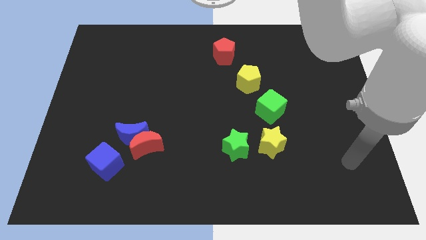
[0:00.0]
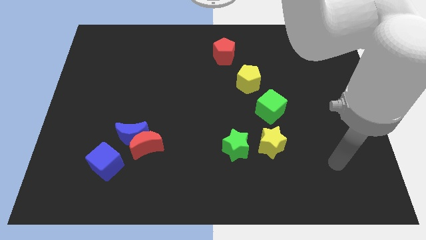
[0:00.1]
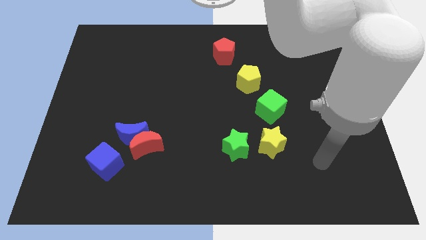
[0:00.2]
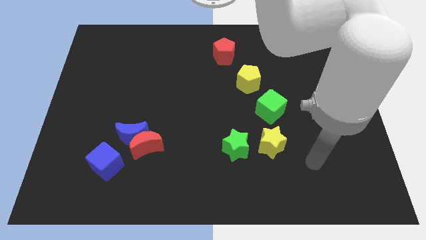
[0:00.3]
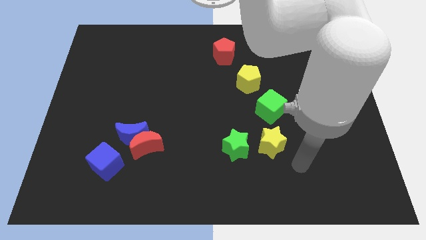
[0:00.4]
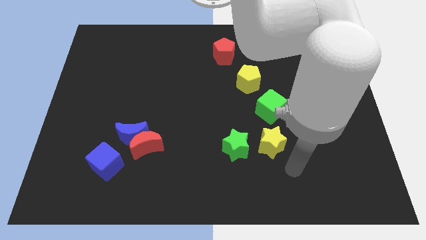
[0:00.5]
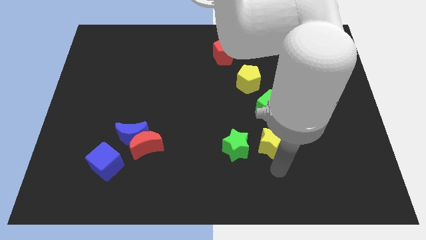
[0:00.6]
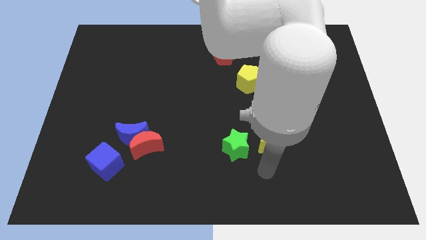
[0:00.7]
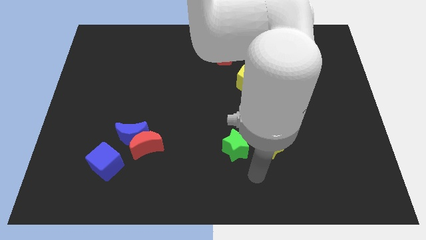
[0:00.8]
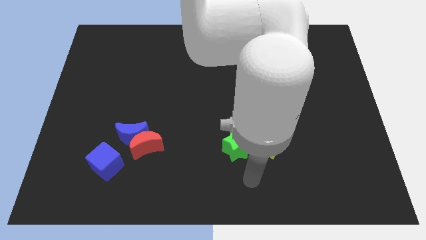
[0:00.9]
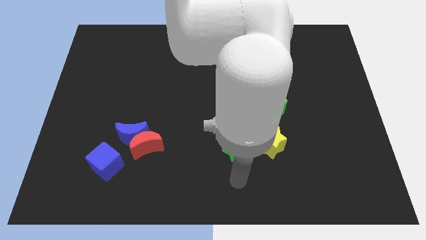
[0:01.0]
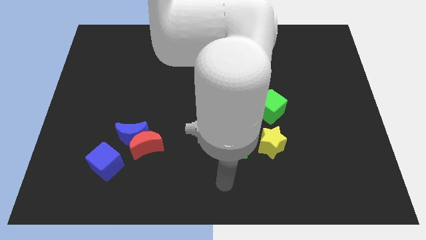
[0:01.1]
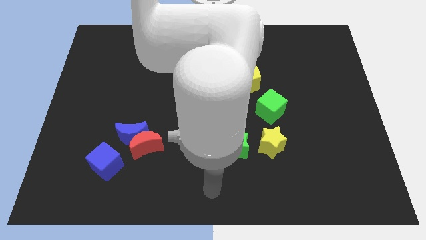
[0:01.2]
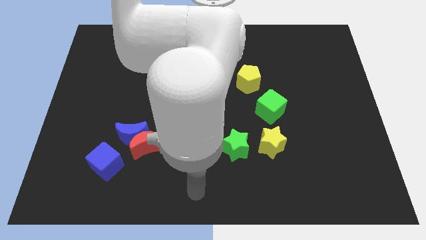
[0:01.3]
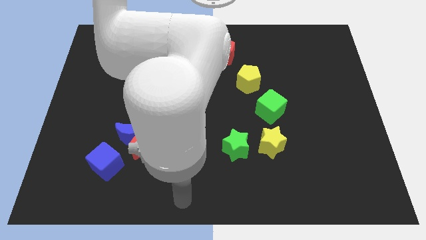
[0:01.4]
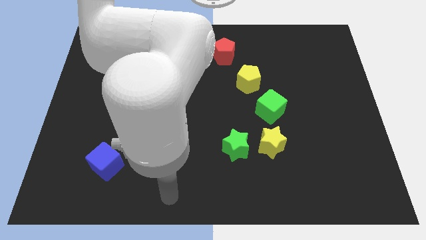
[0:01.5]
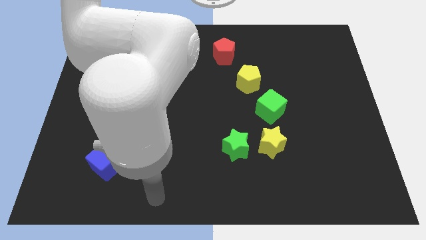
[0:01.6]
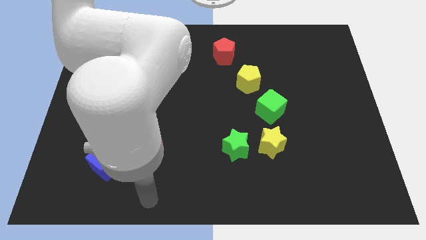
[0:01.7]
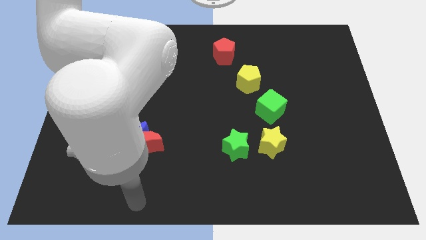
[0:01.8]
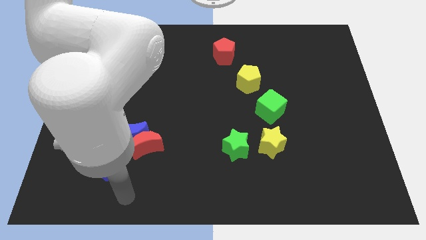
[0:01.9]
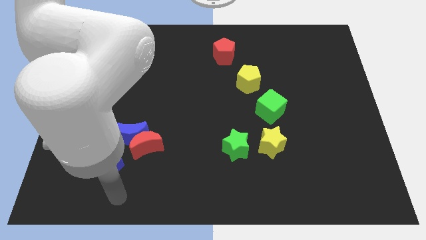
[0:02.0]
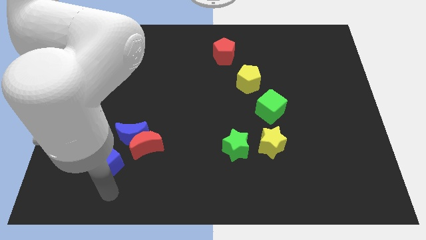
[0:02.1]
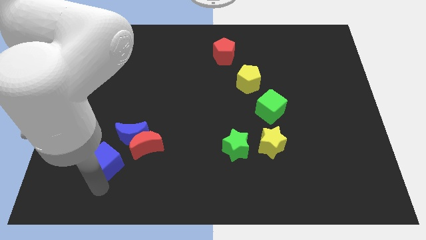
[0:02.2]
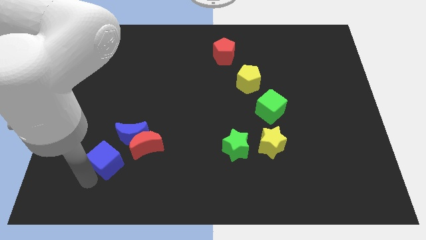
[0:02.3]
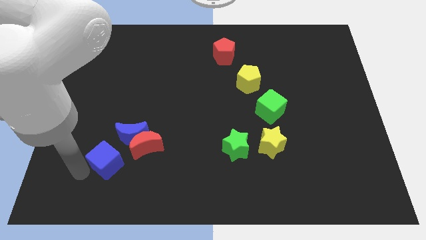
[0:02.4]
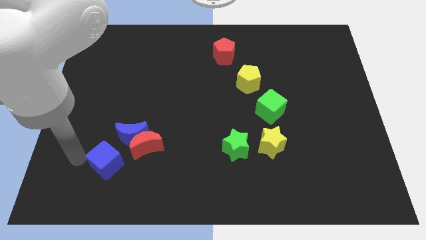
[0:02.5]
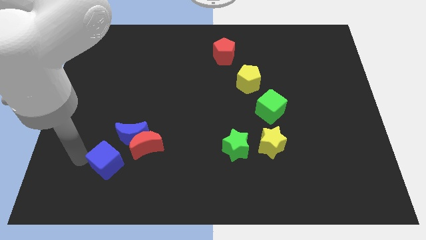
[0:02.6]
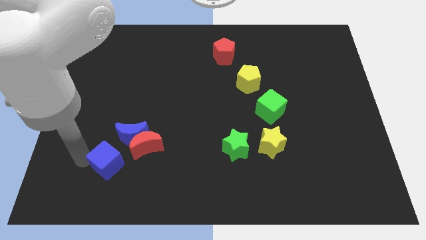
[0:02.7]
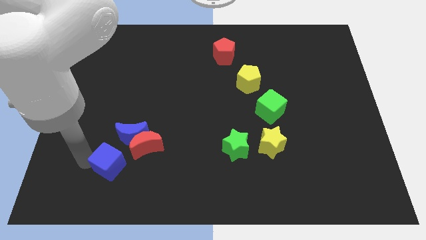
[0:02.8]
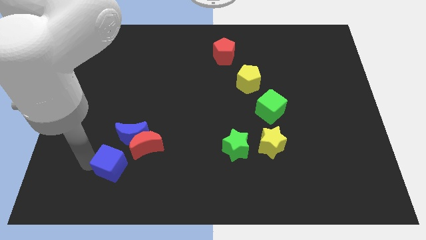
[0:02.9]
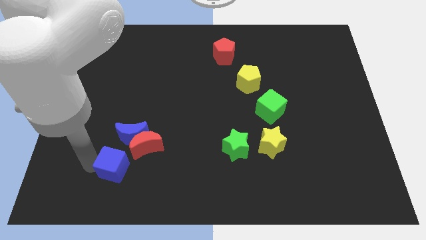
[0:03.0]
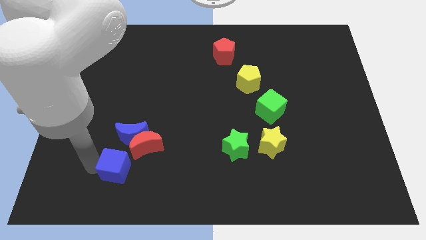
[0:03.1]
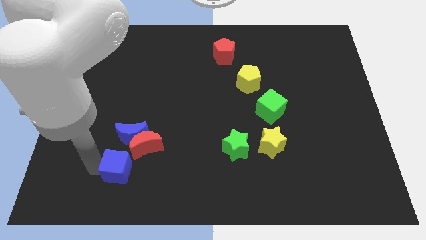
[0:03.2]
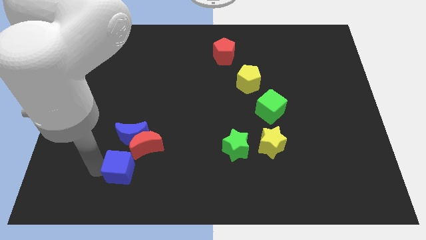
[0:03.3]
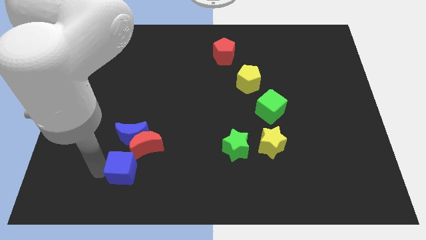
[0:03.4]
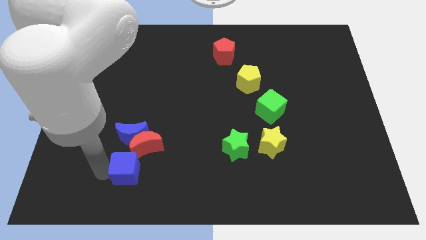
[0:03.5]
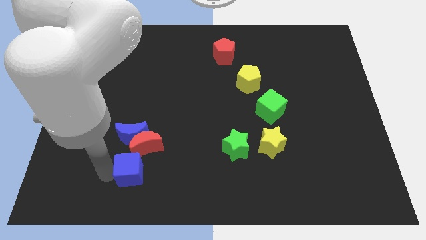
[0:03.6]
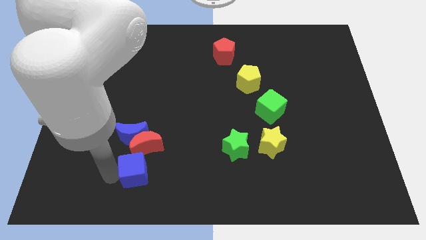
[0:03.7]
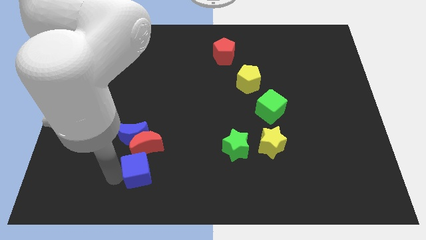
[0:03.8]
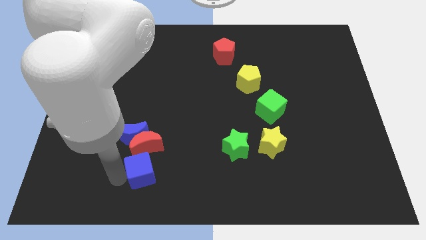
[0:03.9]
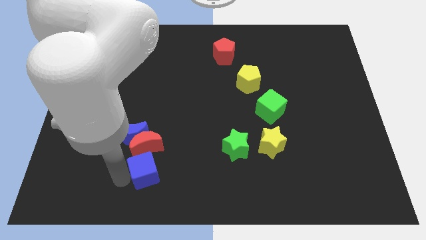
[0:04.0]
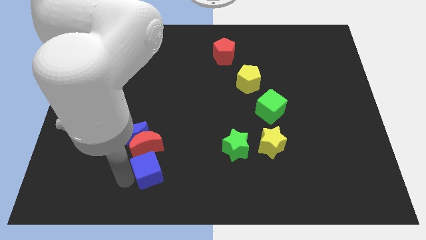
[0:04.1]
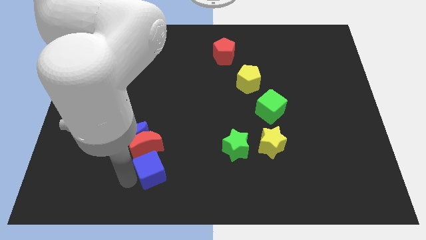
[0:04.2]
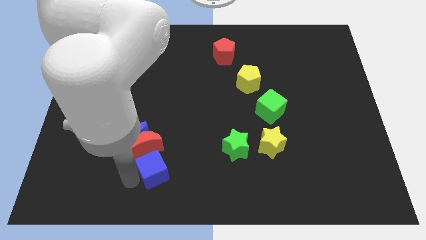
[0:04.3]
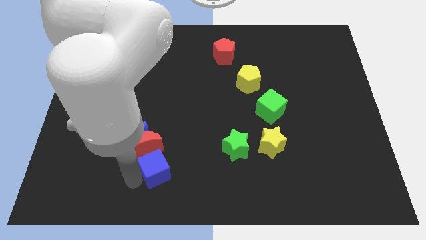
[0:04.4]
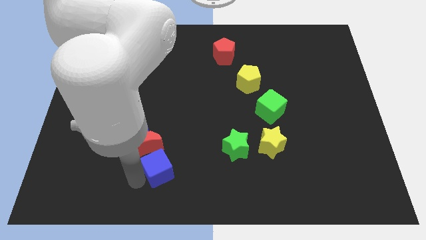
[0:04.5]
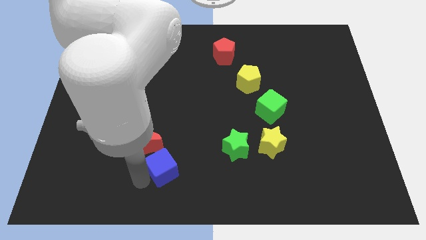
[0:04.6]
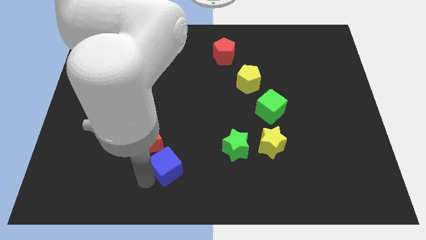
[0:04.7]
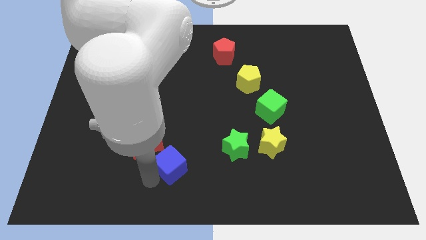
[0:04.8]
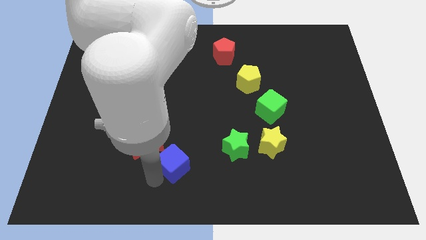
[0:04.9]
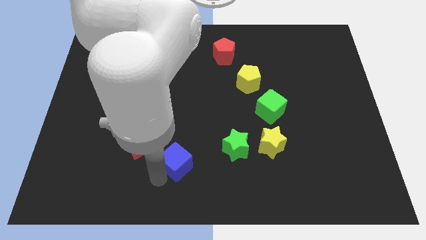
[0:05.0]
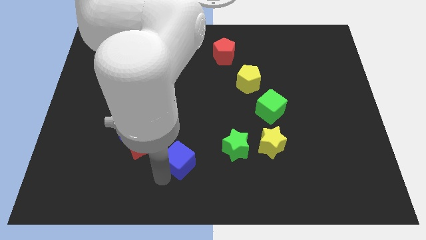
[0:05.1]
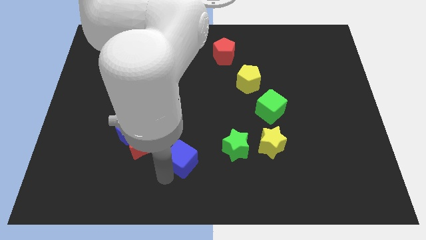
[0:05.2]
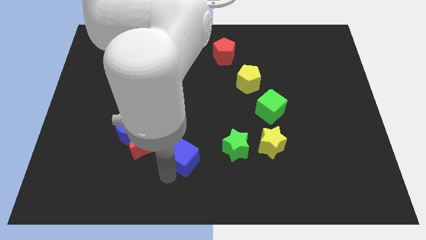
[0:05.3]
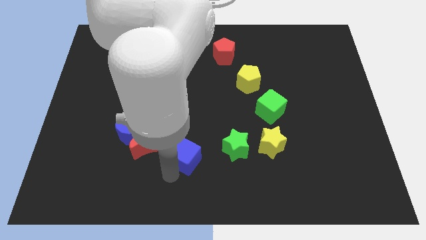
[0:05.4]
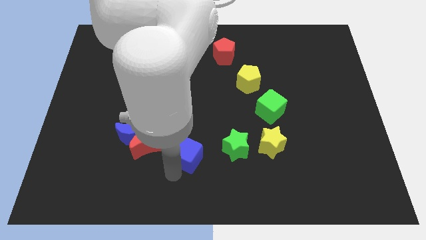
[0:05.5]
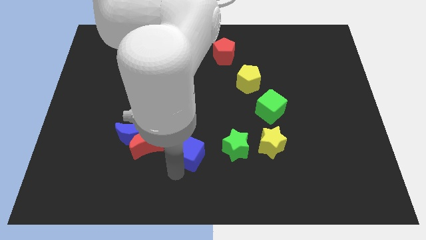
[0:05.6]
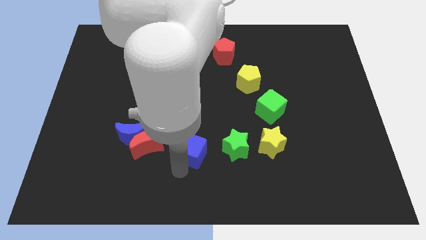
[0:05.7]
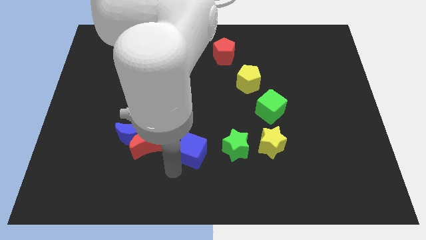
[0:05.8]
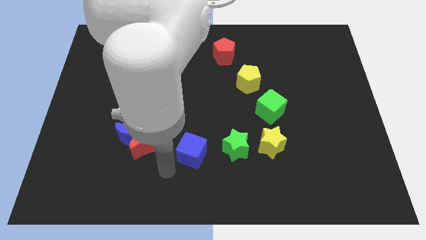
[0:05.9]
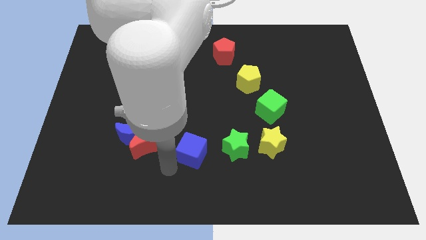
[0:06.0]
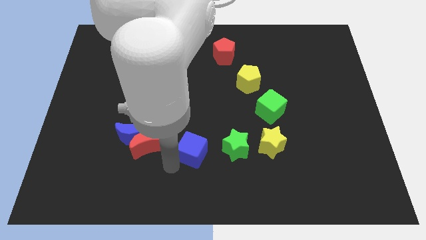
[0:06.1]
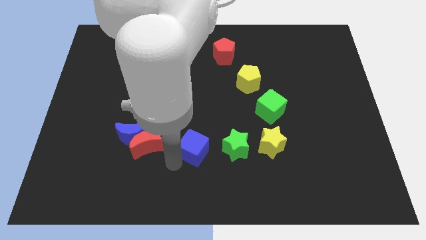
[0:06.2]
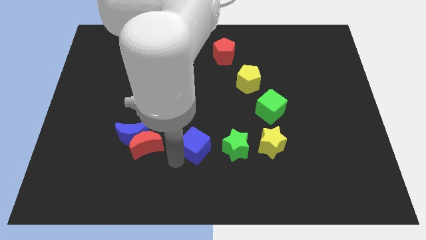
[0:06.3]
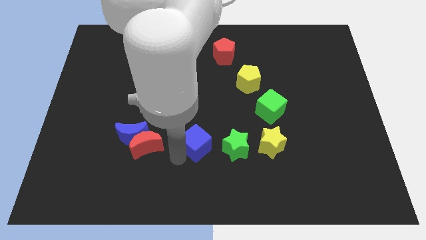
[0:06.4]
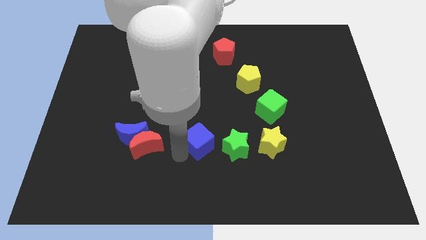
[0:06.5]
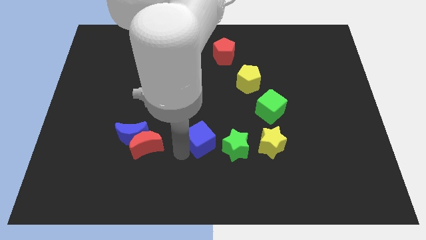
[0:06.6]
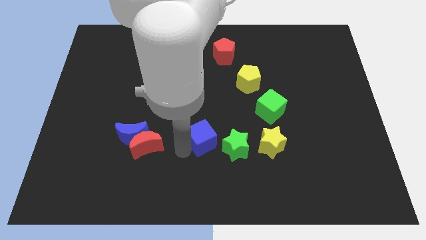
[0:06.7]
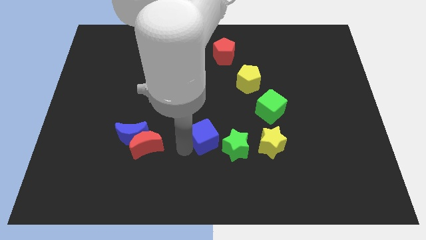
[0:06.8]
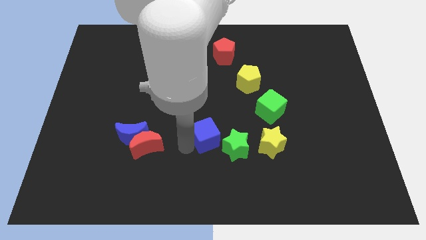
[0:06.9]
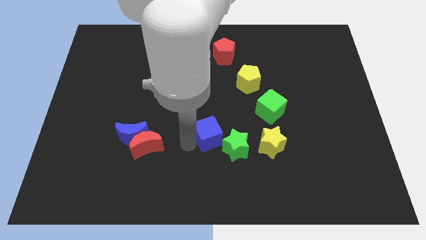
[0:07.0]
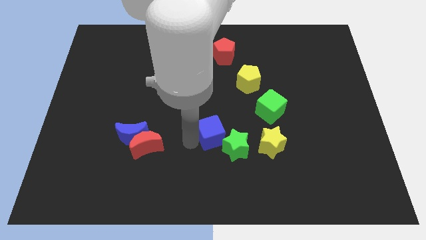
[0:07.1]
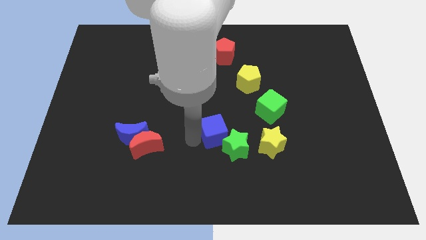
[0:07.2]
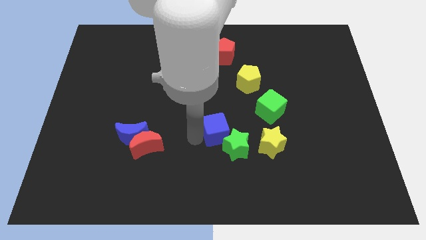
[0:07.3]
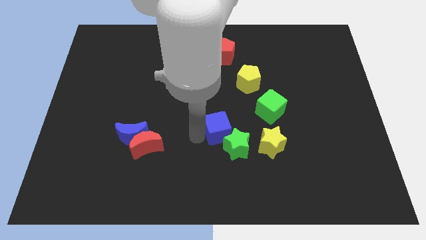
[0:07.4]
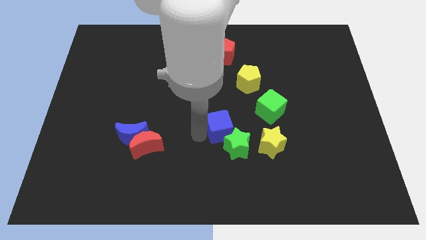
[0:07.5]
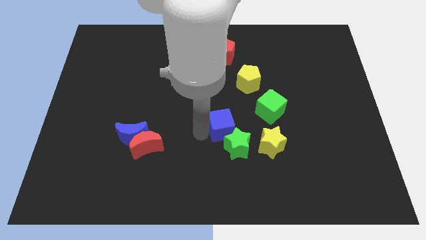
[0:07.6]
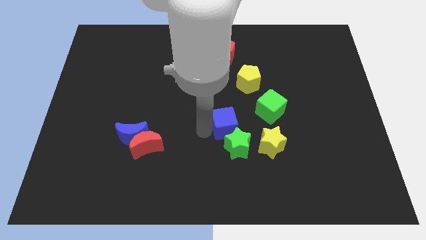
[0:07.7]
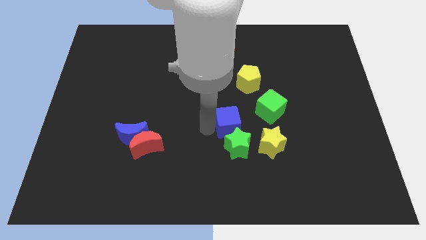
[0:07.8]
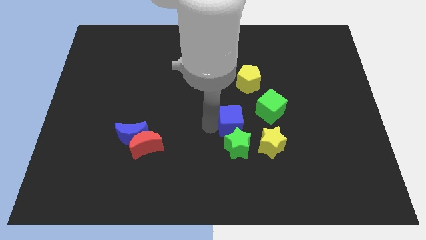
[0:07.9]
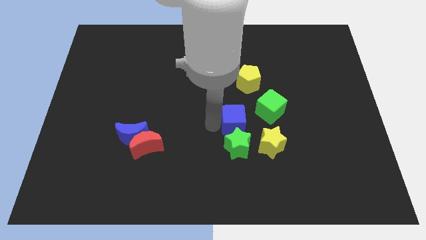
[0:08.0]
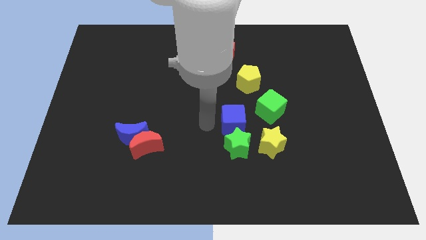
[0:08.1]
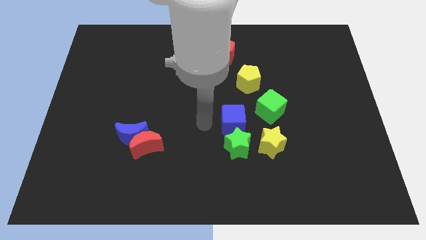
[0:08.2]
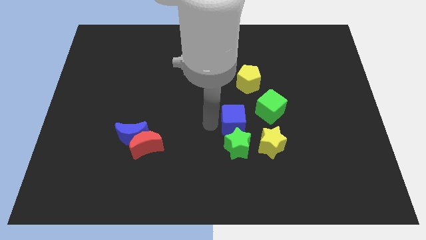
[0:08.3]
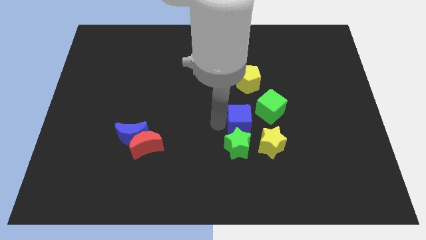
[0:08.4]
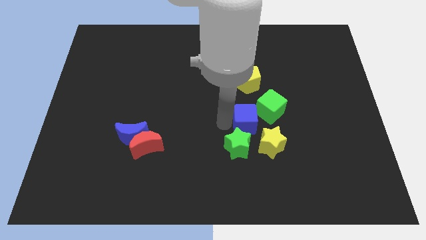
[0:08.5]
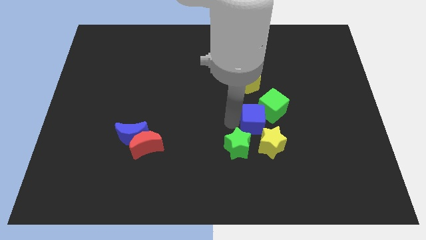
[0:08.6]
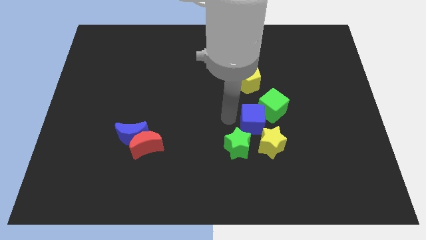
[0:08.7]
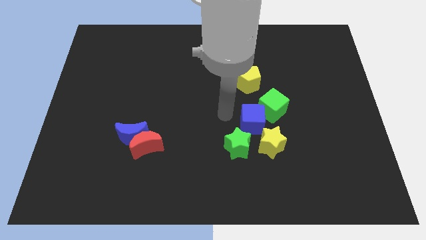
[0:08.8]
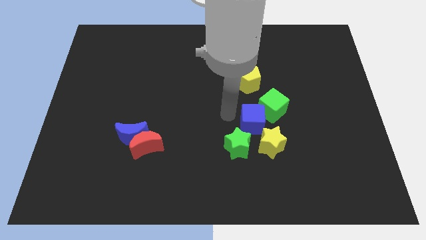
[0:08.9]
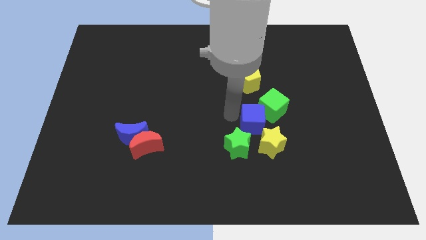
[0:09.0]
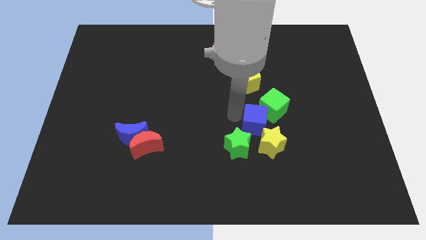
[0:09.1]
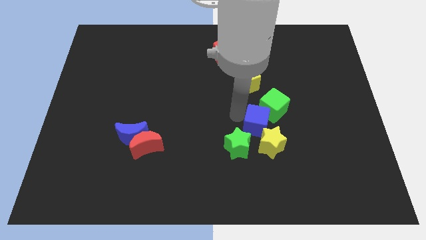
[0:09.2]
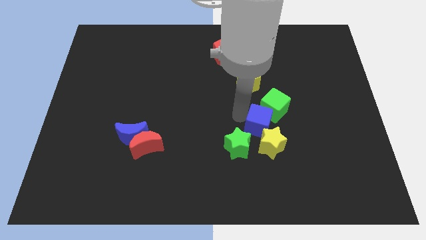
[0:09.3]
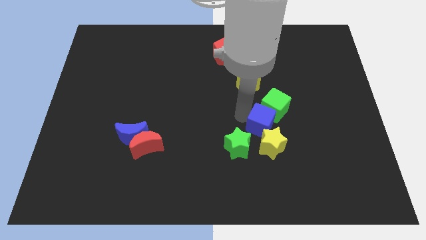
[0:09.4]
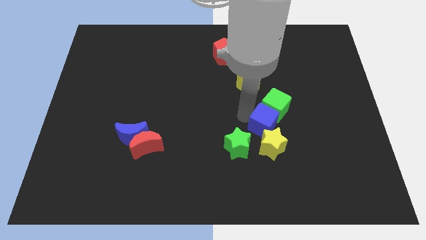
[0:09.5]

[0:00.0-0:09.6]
slide the blue cube diagonally up and to the right of the yellow star
